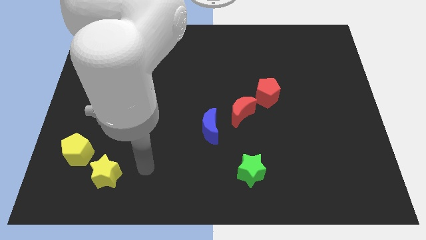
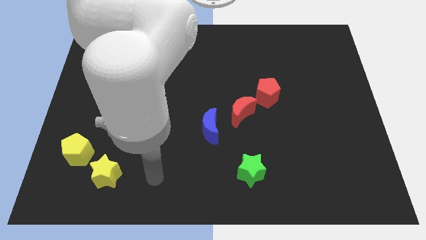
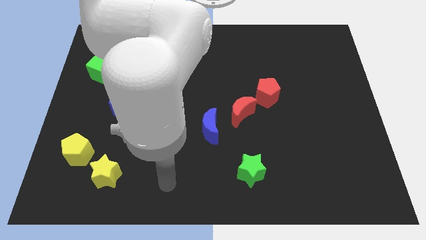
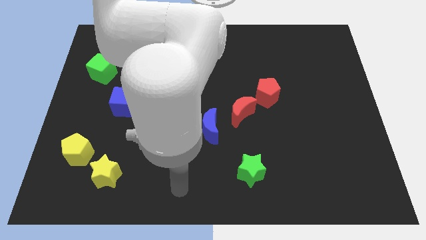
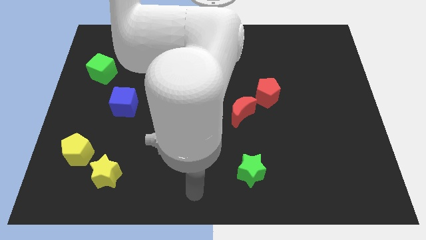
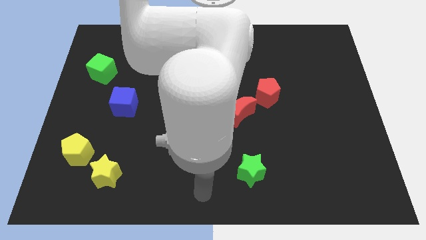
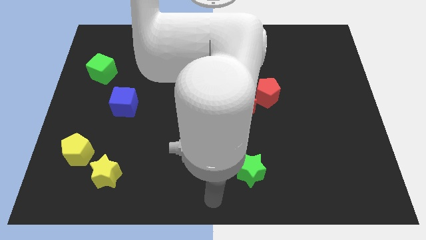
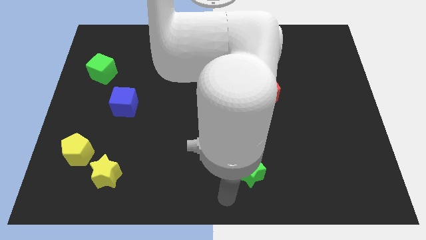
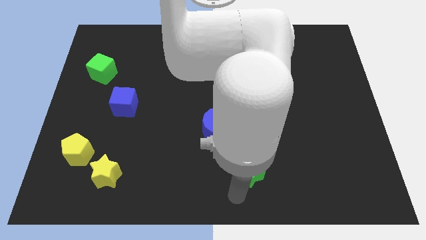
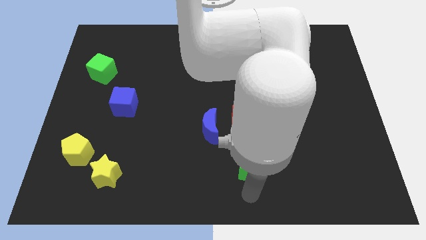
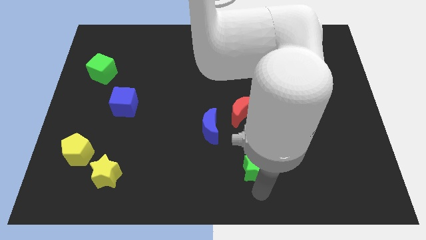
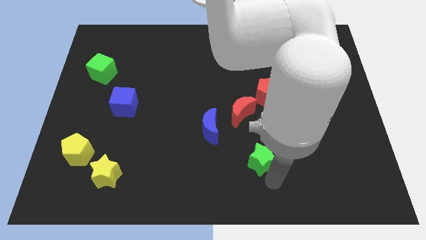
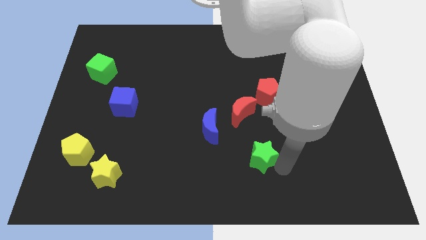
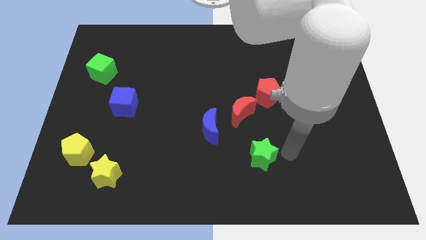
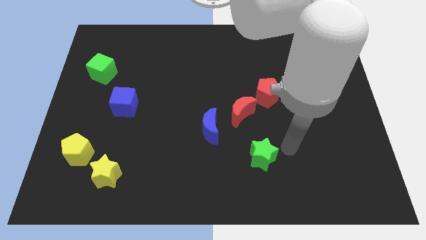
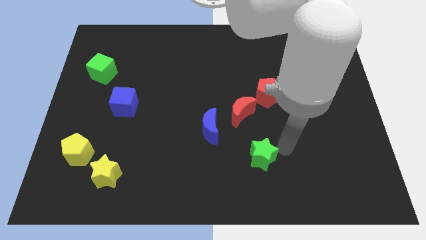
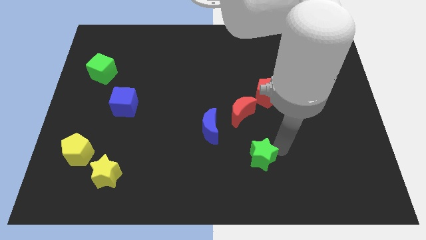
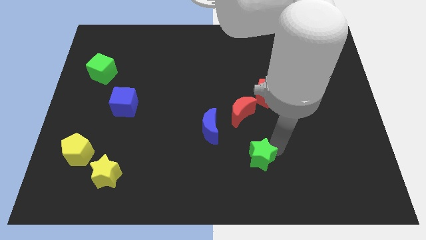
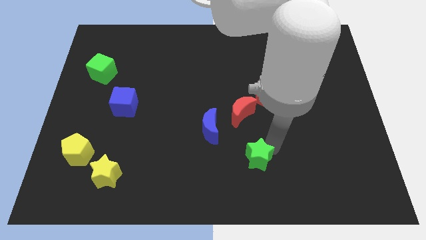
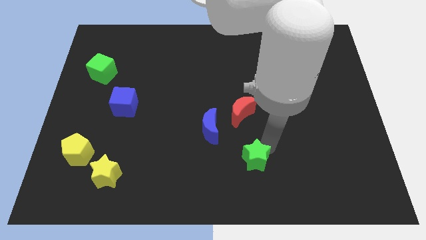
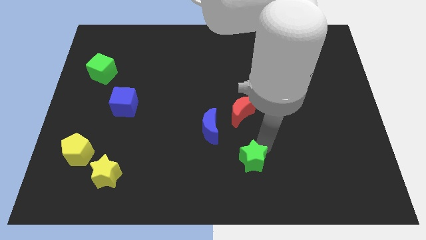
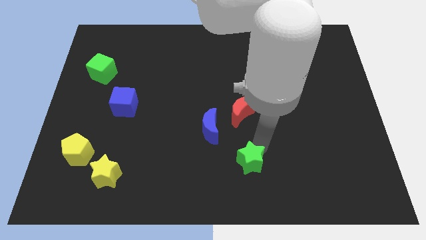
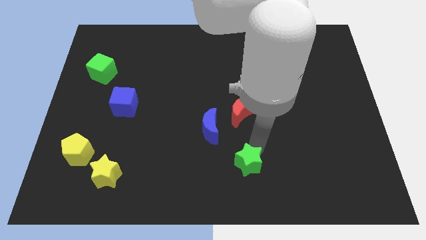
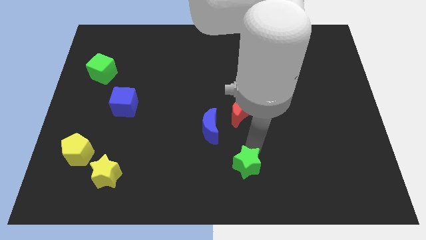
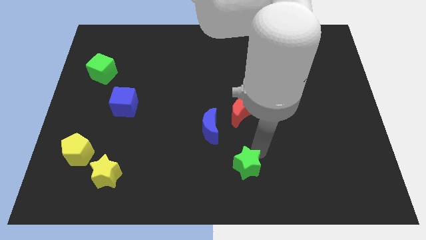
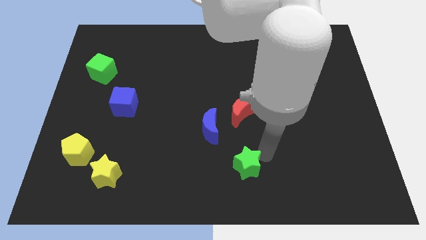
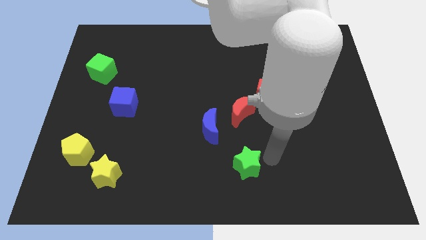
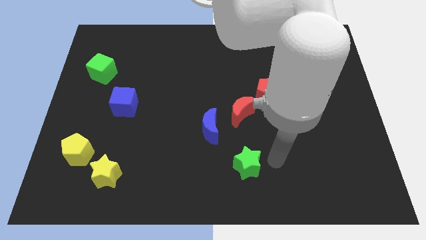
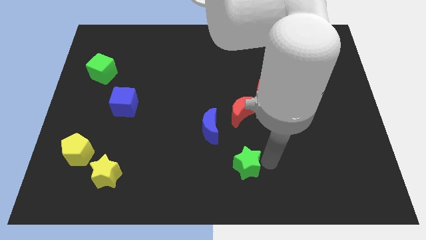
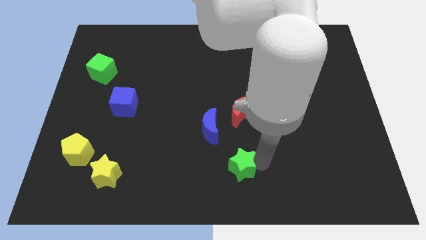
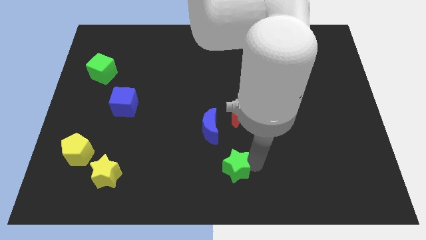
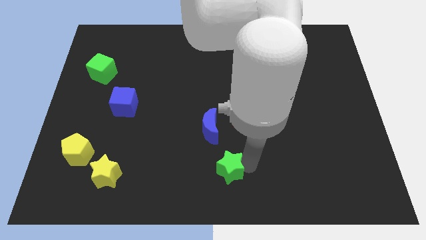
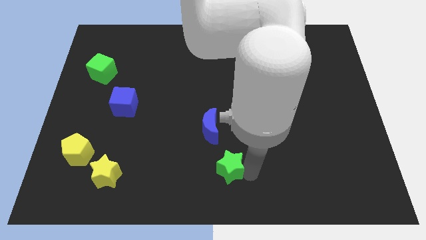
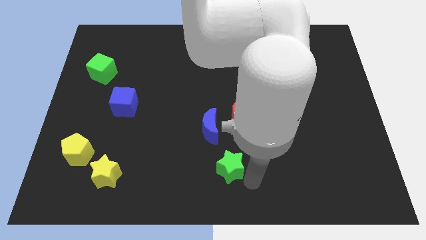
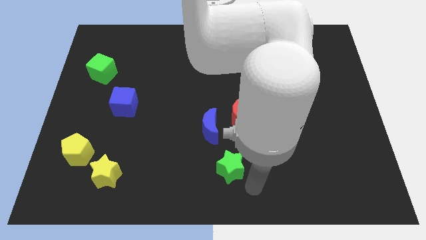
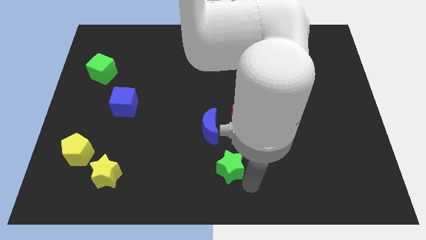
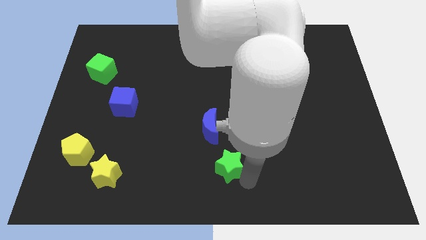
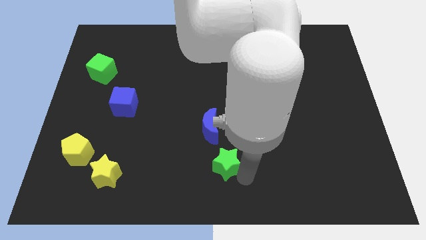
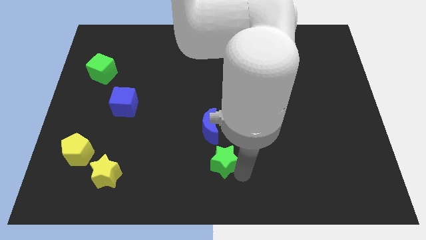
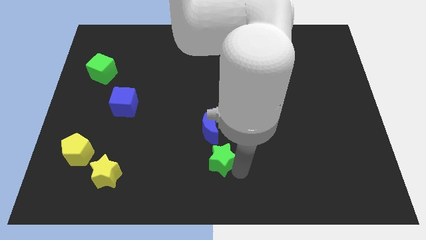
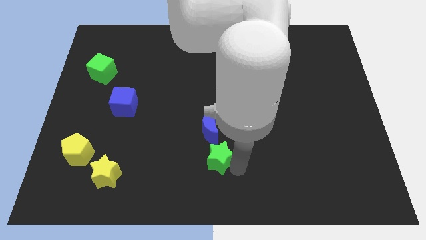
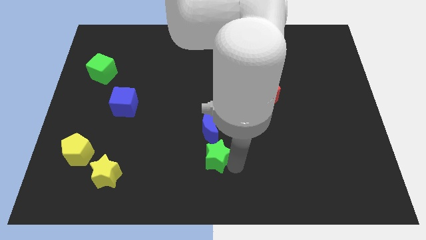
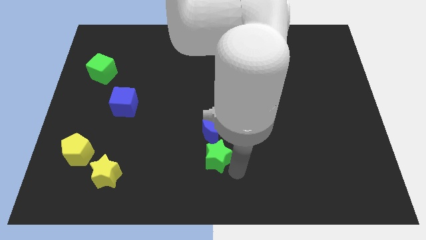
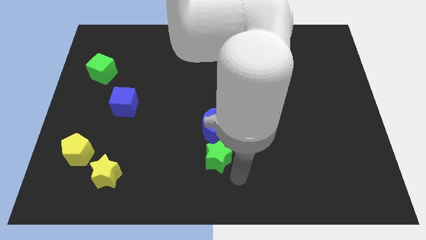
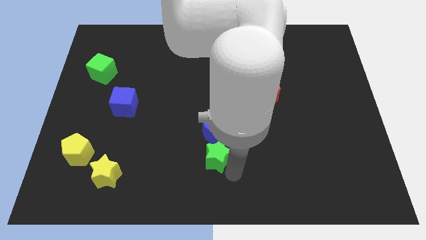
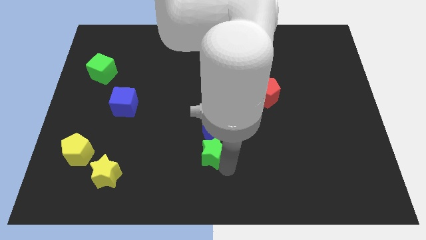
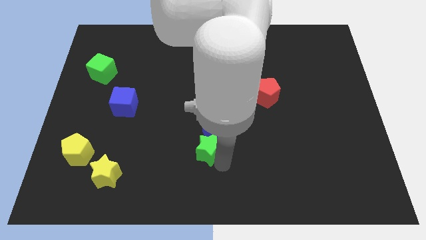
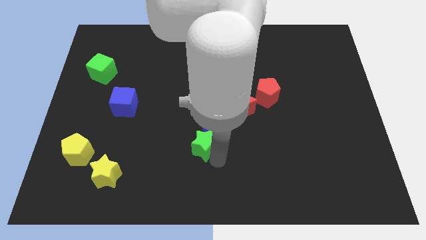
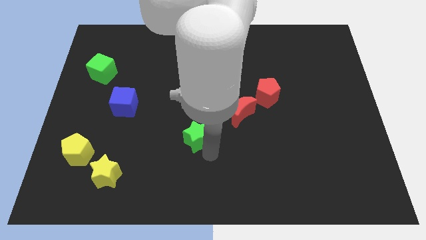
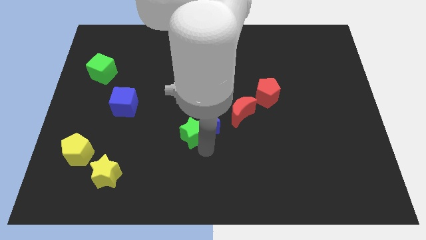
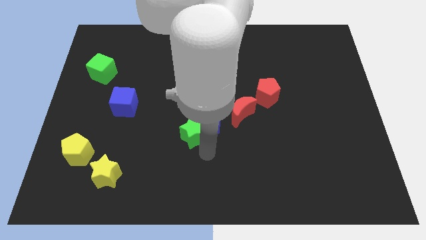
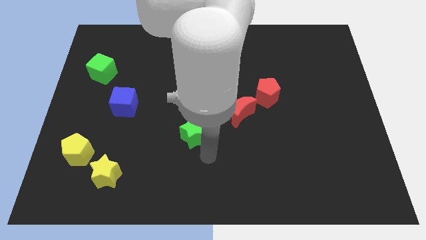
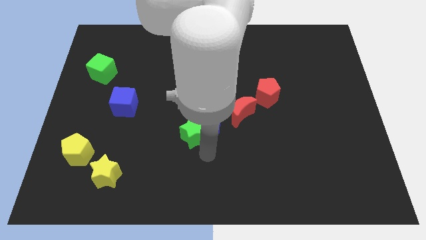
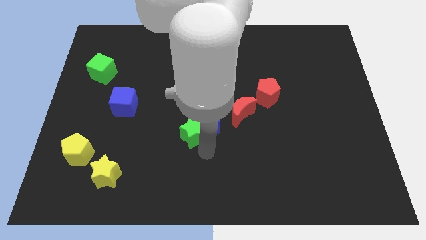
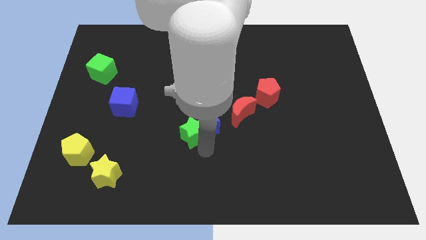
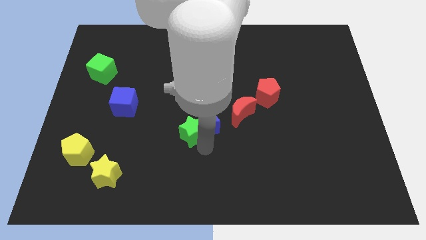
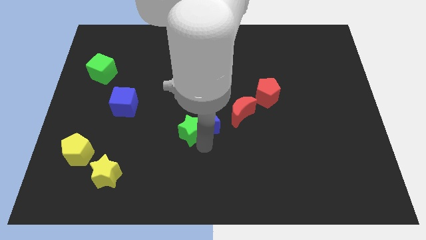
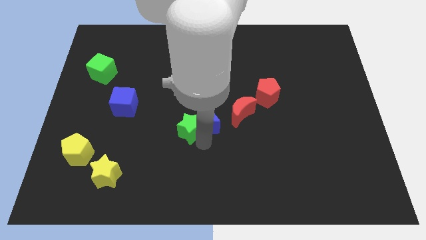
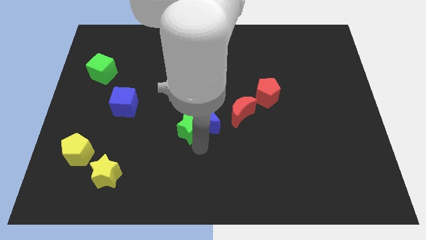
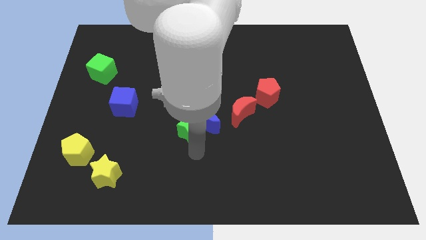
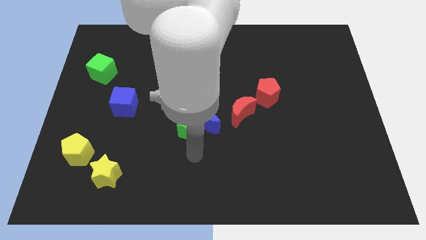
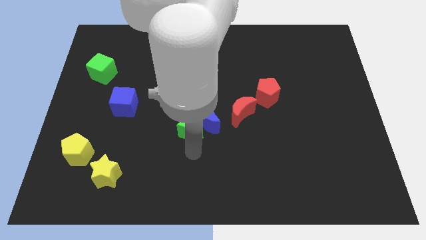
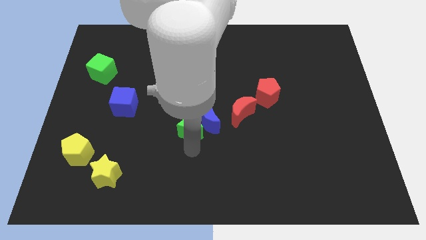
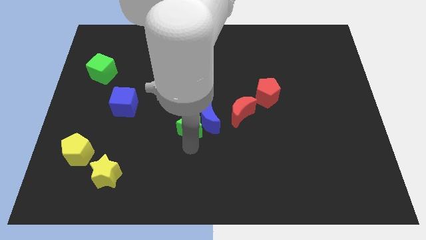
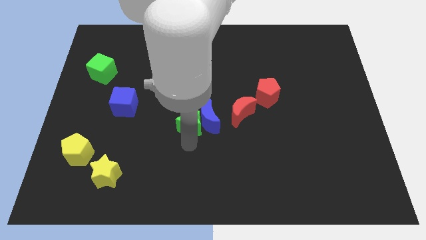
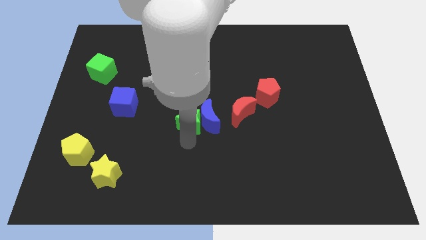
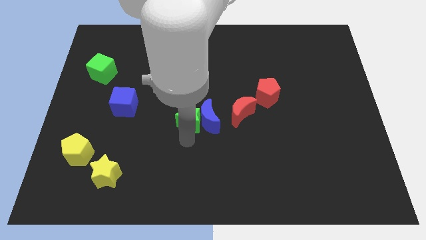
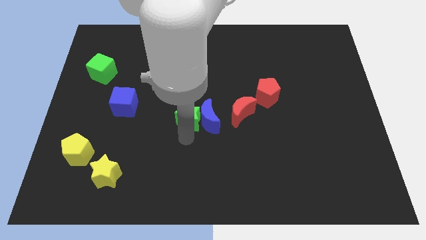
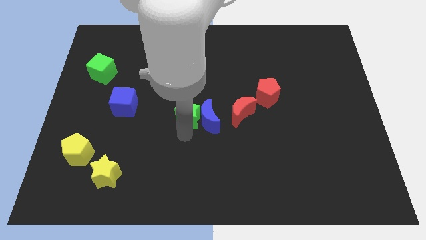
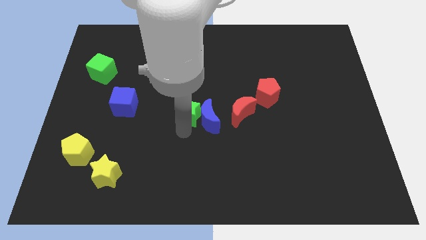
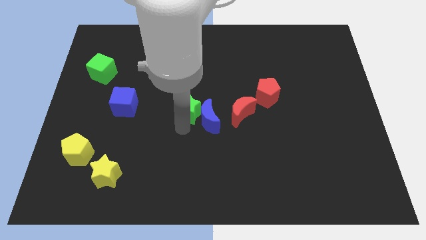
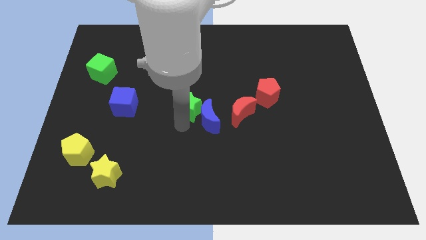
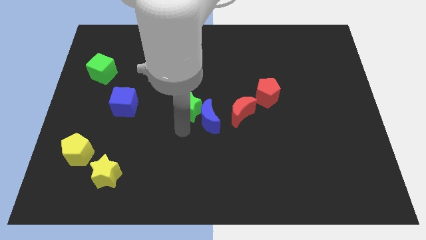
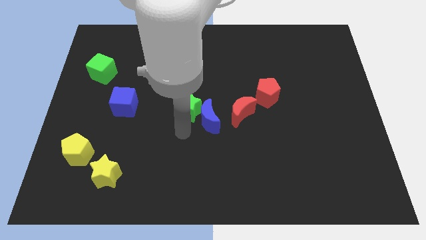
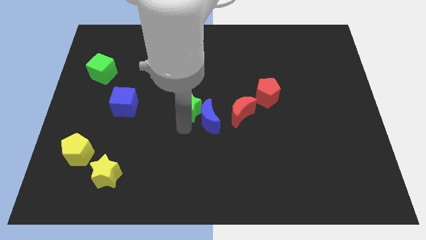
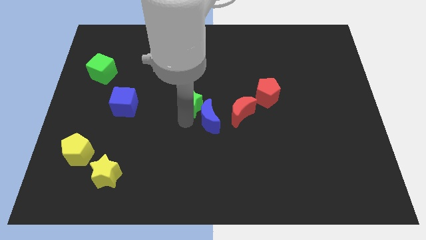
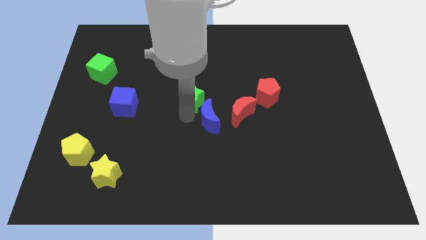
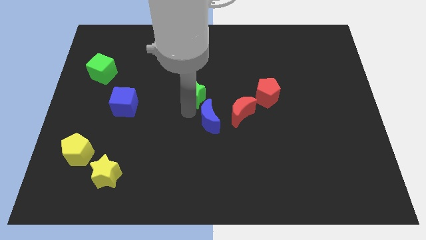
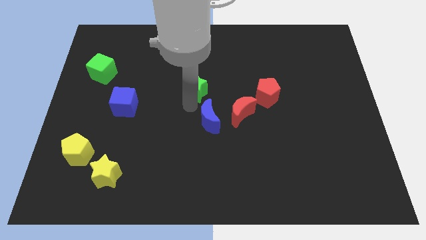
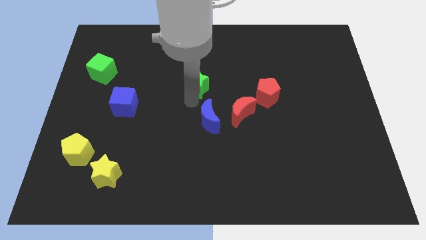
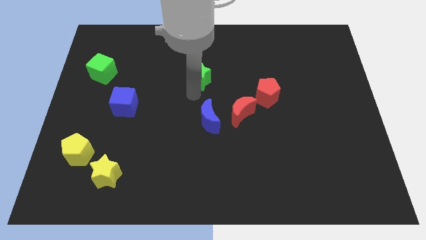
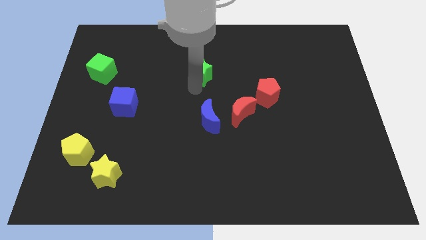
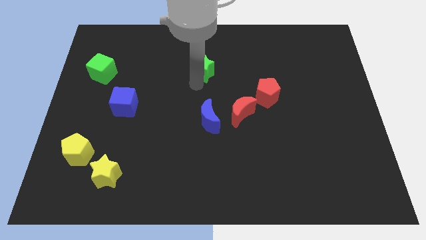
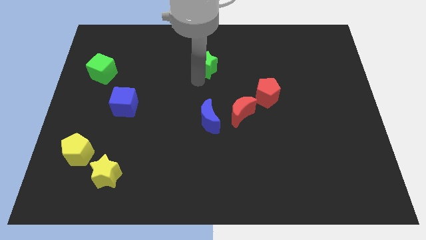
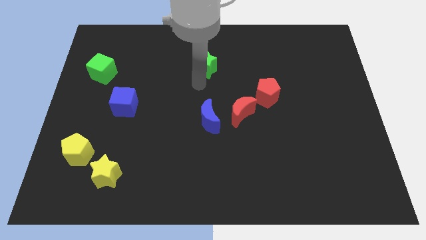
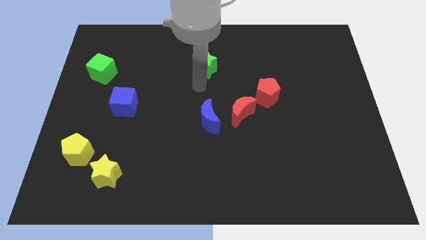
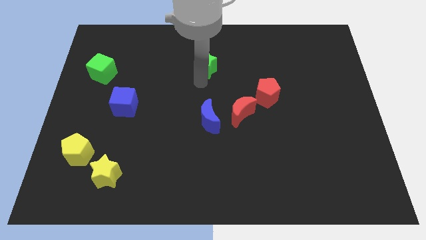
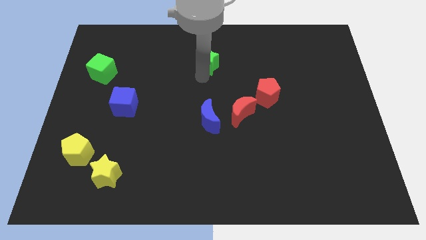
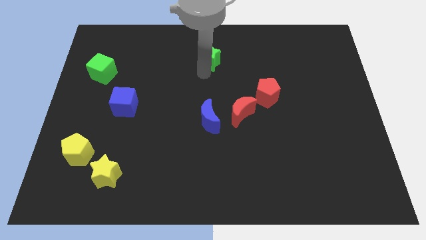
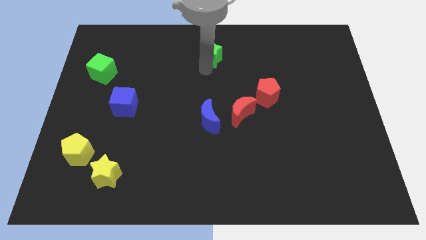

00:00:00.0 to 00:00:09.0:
slide the green star to the towards your base
